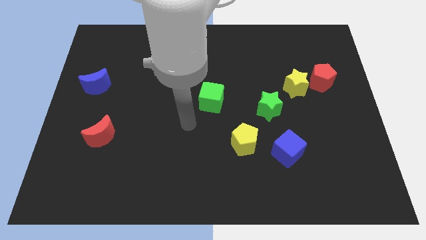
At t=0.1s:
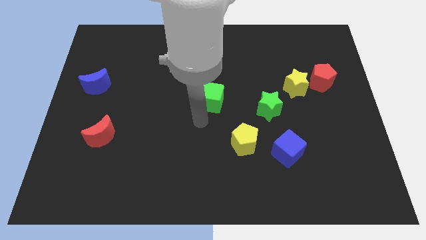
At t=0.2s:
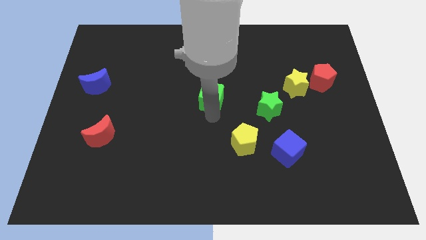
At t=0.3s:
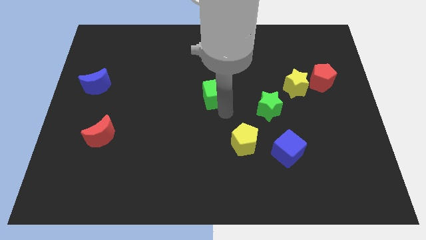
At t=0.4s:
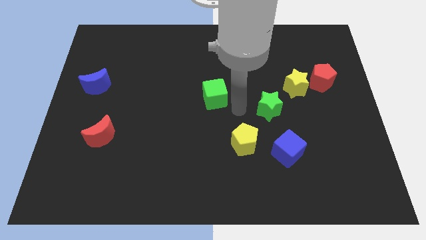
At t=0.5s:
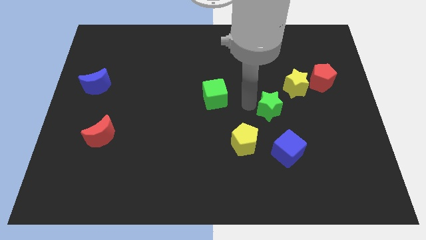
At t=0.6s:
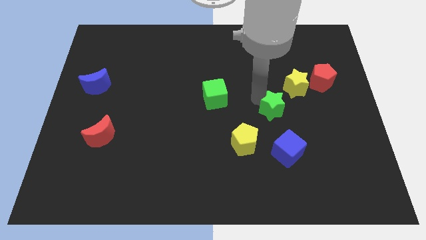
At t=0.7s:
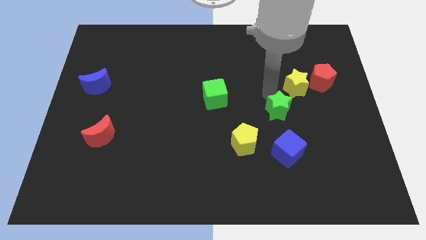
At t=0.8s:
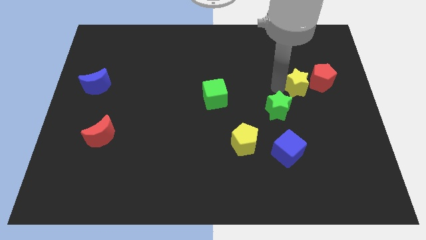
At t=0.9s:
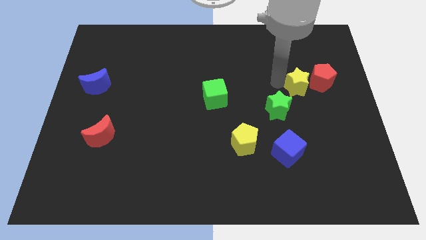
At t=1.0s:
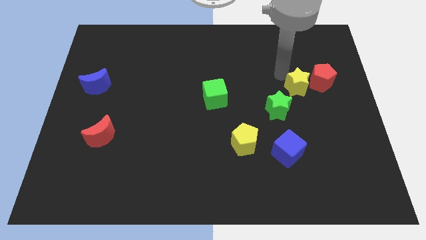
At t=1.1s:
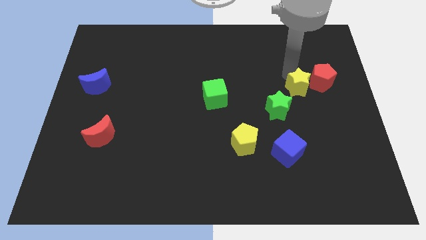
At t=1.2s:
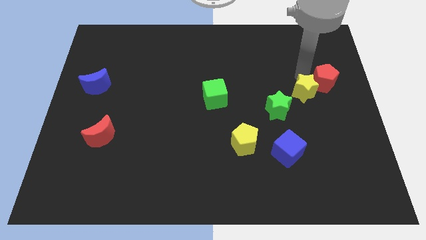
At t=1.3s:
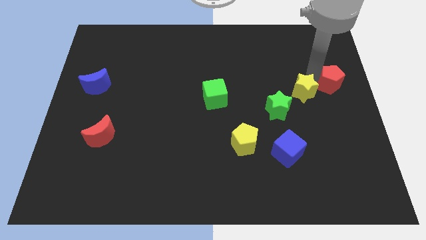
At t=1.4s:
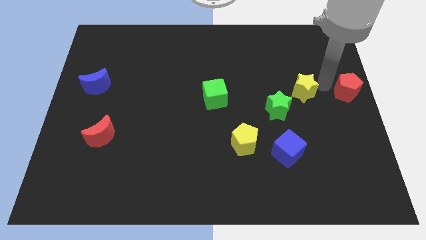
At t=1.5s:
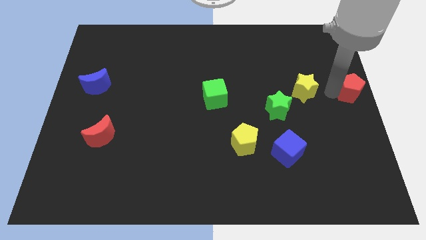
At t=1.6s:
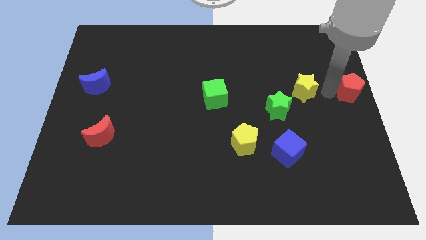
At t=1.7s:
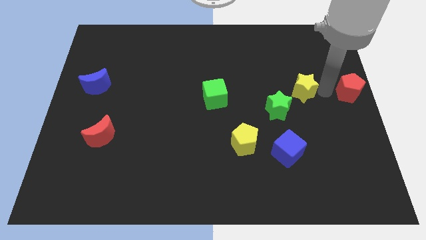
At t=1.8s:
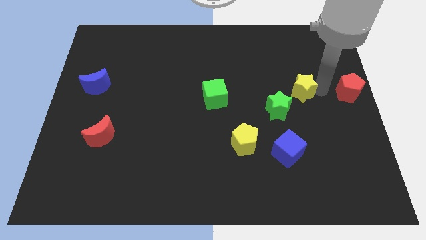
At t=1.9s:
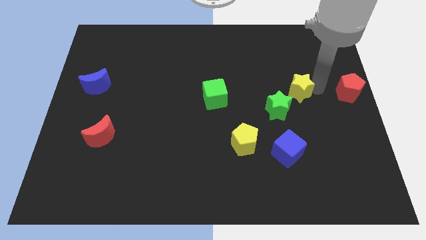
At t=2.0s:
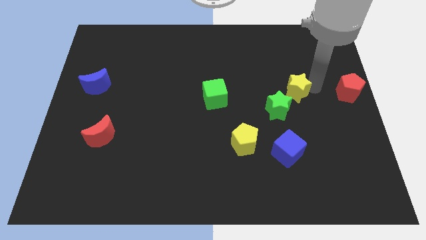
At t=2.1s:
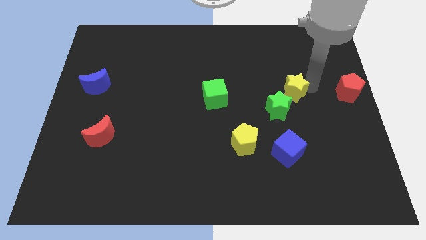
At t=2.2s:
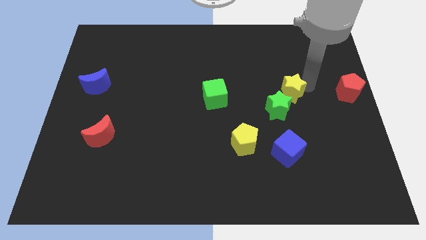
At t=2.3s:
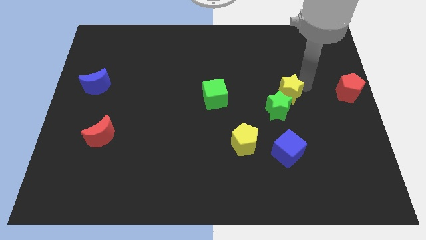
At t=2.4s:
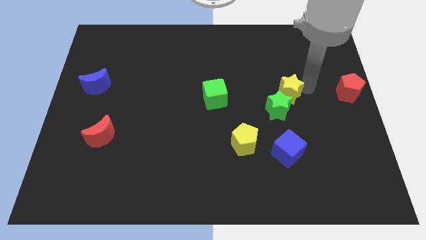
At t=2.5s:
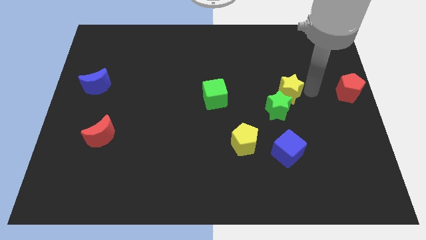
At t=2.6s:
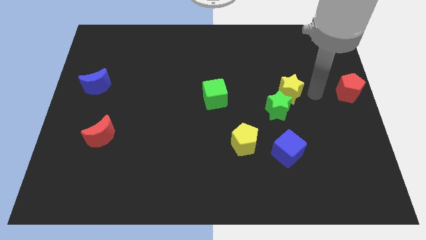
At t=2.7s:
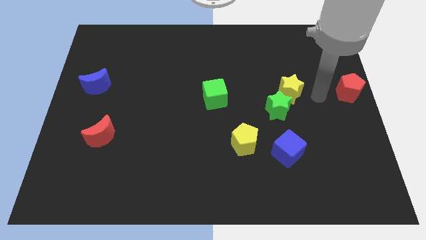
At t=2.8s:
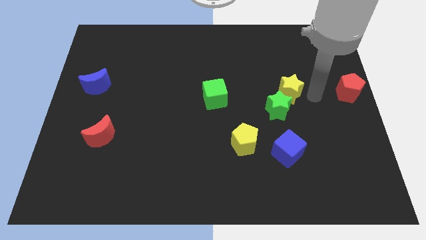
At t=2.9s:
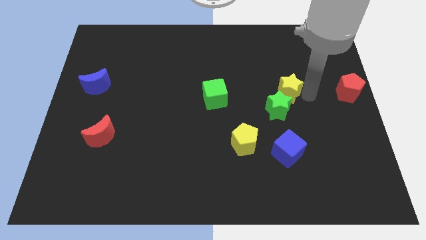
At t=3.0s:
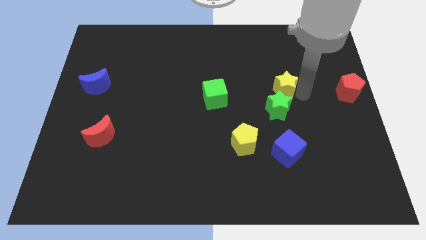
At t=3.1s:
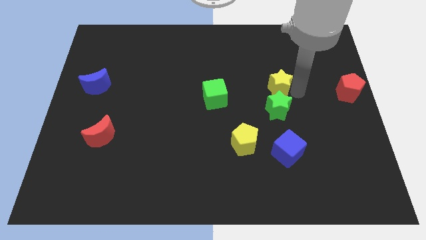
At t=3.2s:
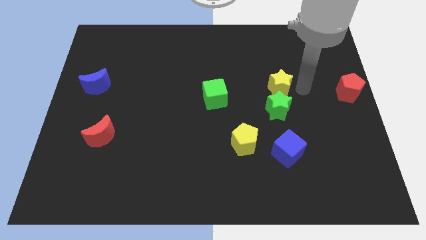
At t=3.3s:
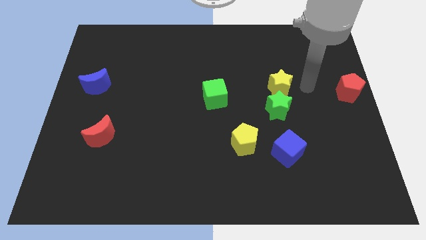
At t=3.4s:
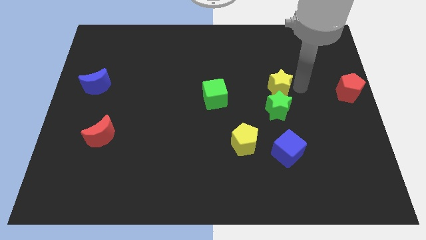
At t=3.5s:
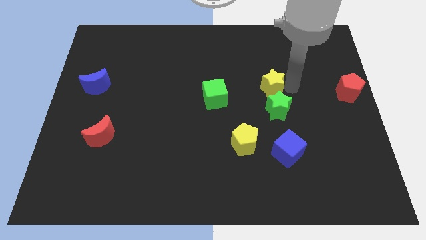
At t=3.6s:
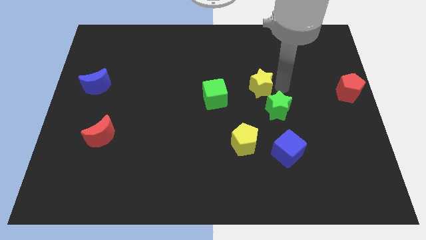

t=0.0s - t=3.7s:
move the yellow star a little bit to the left

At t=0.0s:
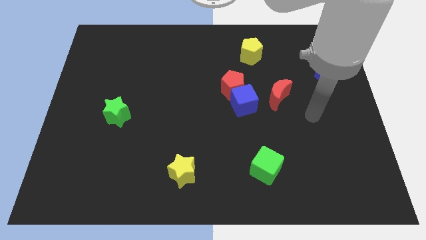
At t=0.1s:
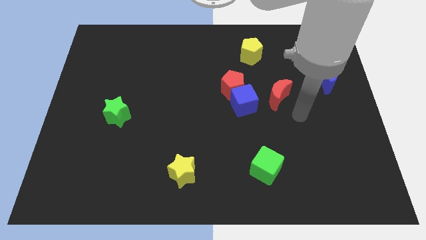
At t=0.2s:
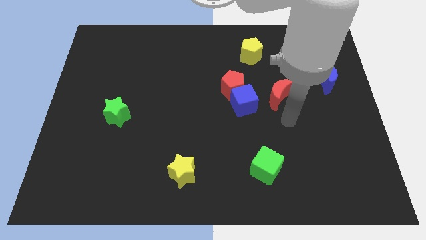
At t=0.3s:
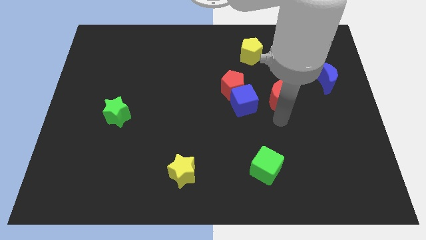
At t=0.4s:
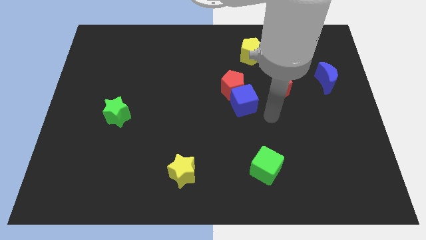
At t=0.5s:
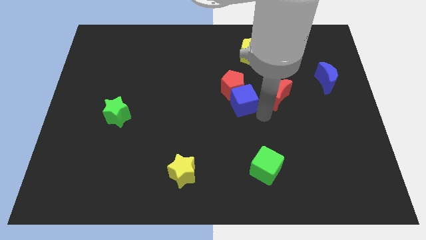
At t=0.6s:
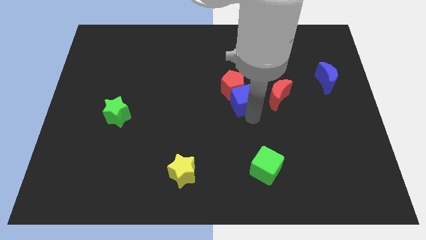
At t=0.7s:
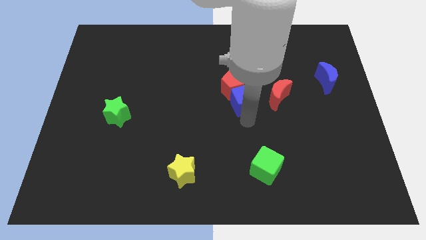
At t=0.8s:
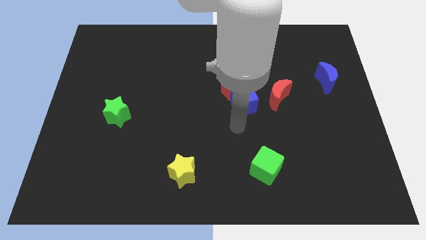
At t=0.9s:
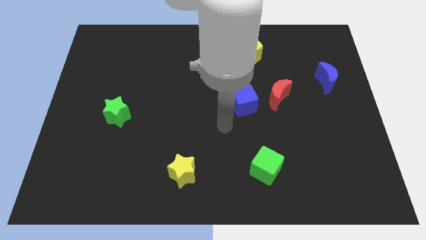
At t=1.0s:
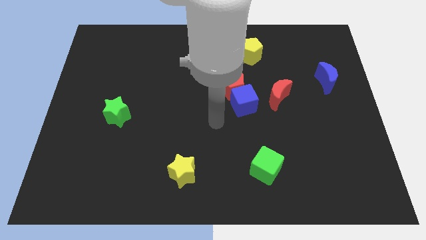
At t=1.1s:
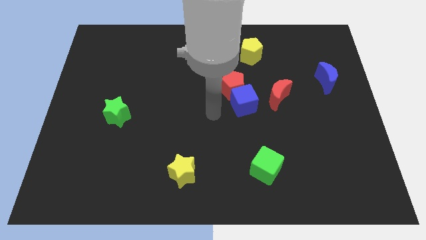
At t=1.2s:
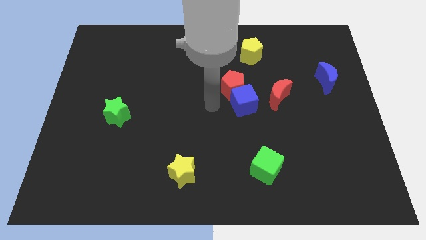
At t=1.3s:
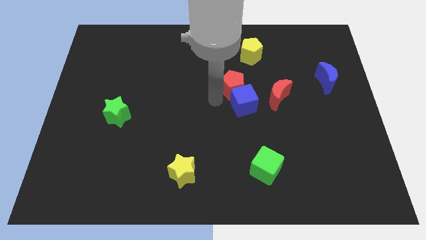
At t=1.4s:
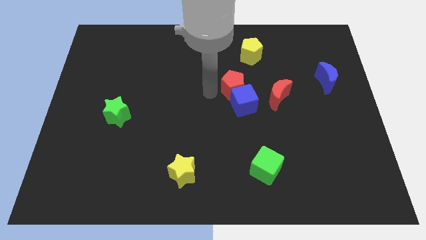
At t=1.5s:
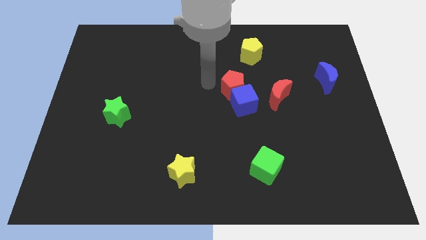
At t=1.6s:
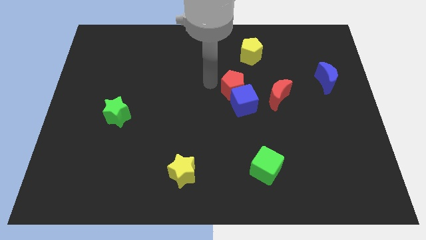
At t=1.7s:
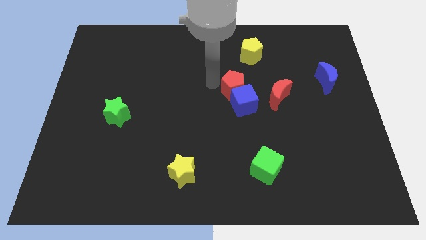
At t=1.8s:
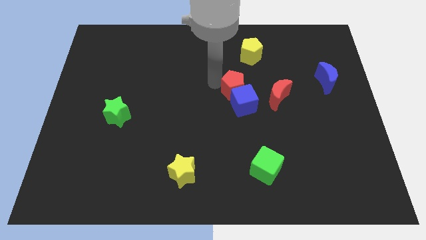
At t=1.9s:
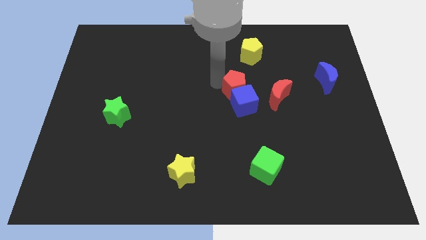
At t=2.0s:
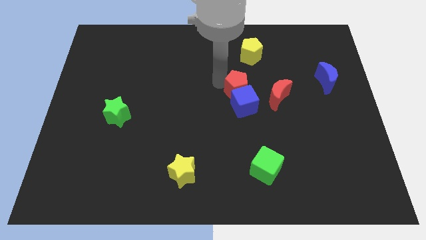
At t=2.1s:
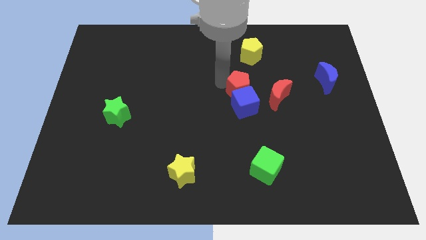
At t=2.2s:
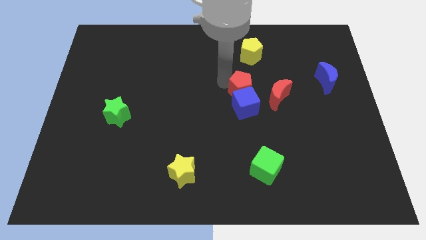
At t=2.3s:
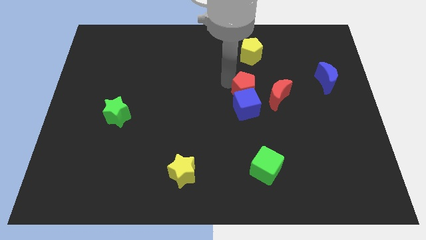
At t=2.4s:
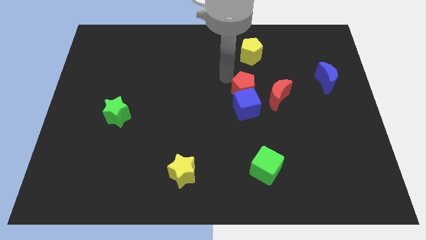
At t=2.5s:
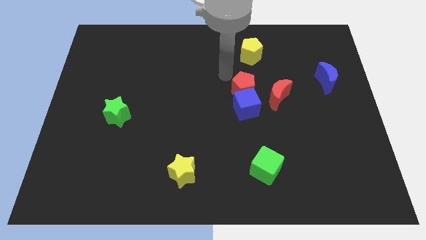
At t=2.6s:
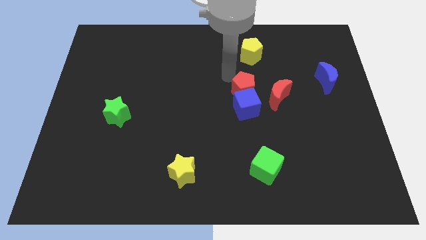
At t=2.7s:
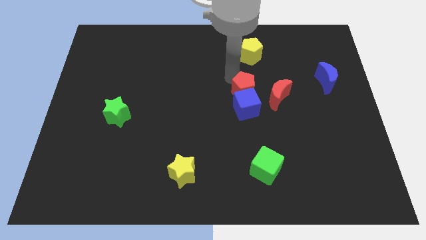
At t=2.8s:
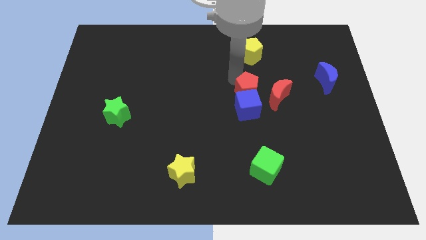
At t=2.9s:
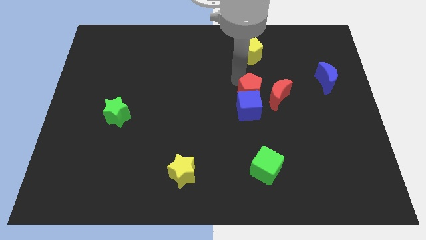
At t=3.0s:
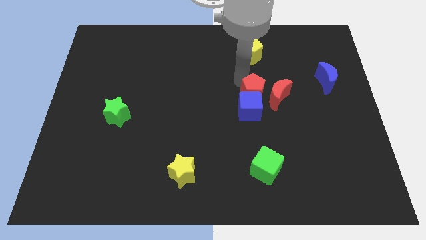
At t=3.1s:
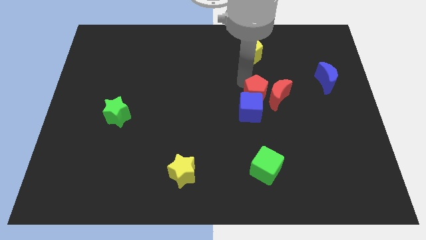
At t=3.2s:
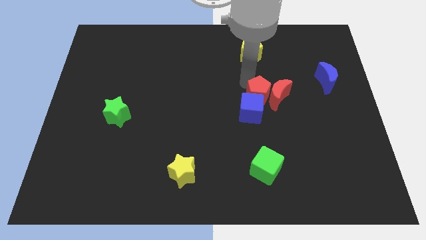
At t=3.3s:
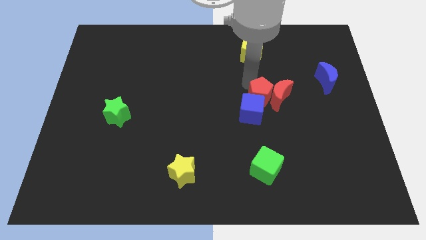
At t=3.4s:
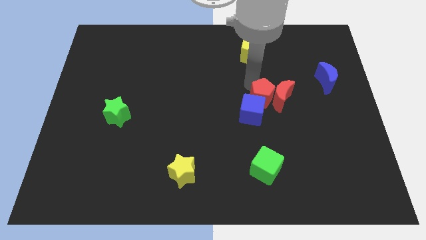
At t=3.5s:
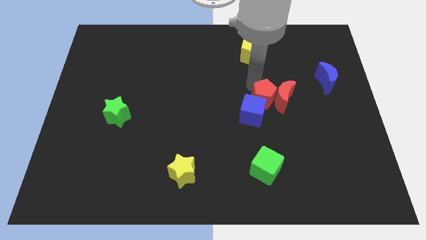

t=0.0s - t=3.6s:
move the red pentagon somewhat downwards and right

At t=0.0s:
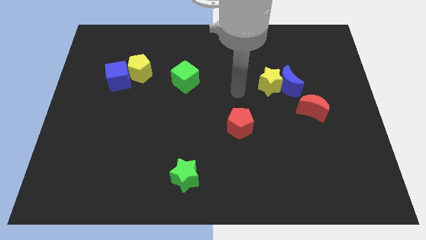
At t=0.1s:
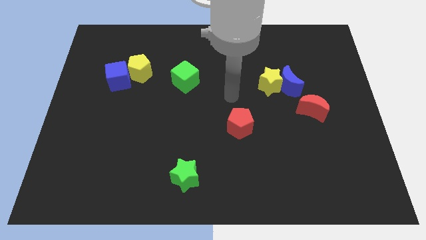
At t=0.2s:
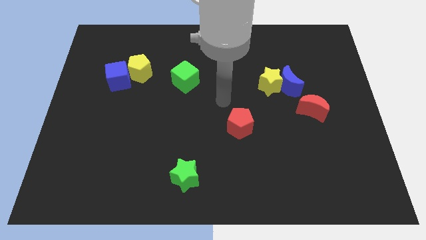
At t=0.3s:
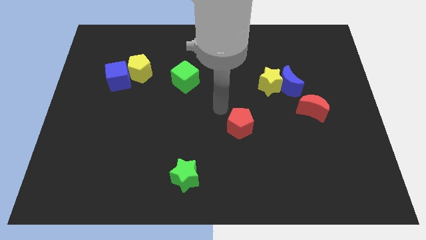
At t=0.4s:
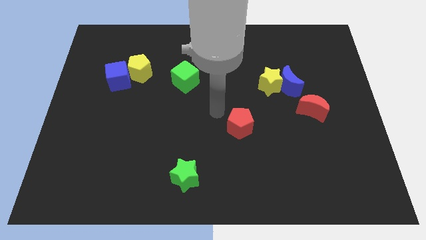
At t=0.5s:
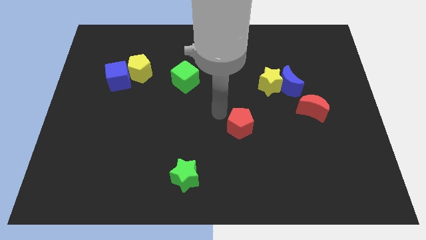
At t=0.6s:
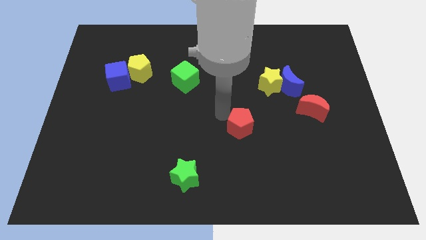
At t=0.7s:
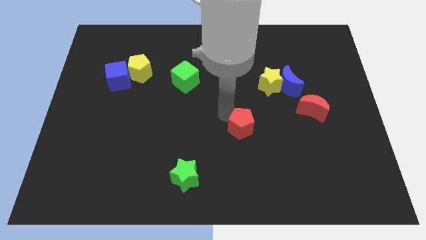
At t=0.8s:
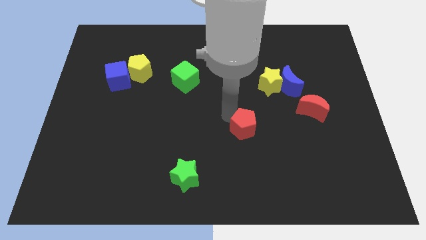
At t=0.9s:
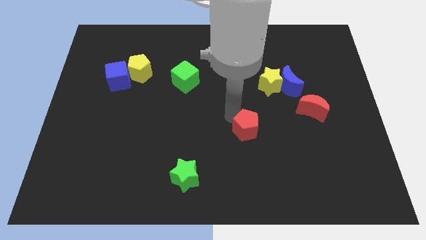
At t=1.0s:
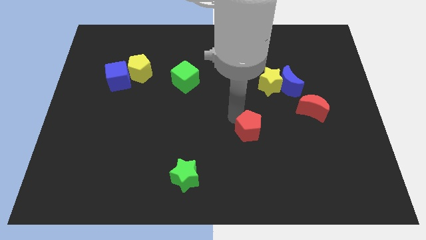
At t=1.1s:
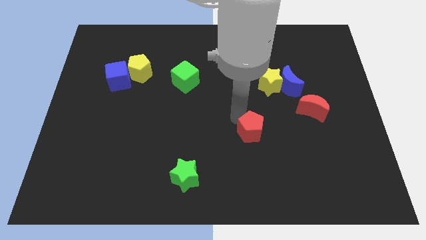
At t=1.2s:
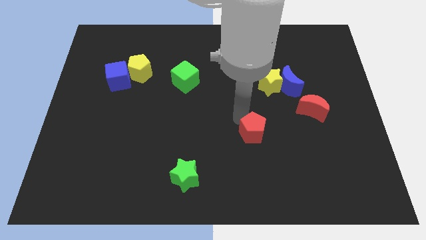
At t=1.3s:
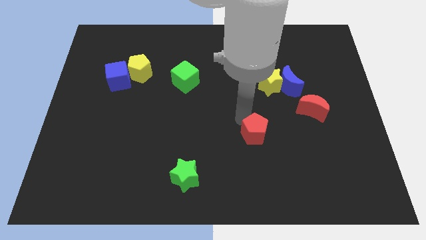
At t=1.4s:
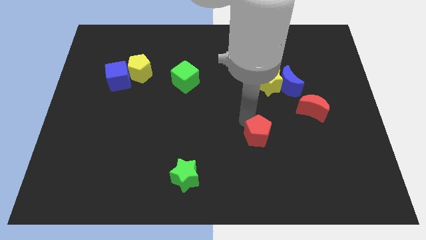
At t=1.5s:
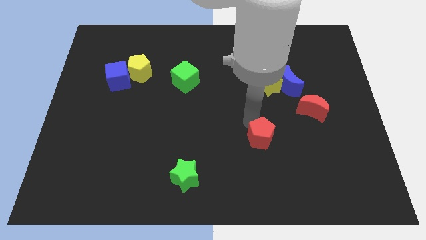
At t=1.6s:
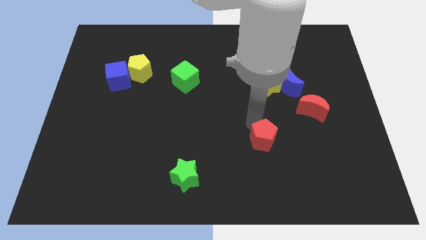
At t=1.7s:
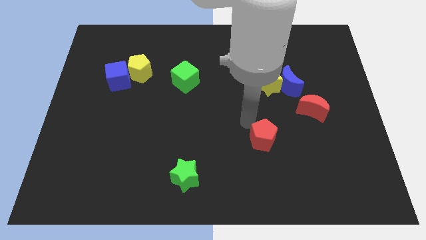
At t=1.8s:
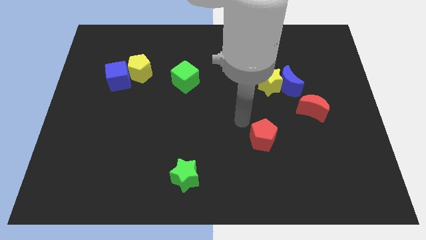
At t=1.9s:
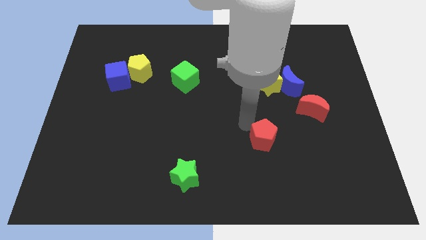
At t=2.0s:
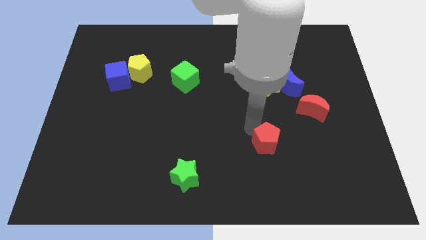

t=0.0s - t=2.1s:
push the red pentagon a bit downwards and to the right
